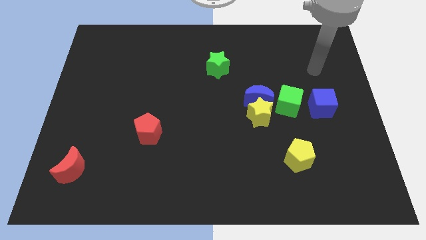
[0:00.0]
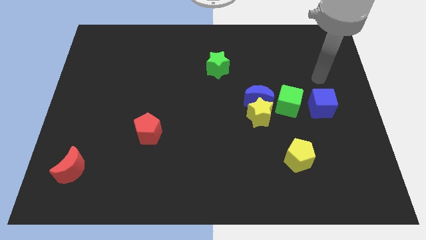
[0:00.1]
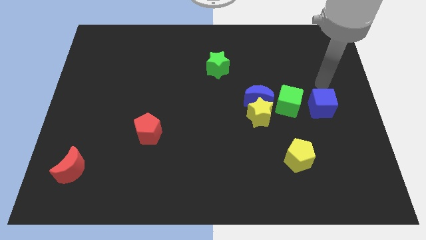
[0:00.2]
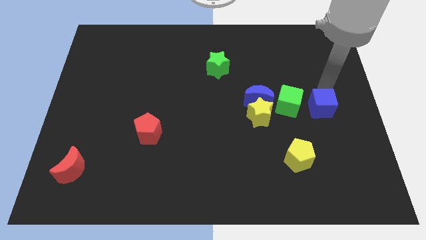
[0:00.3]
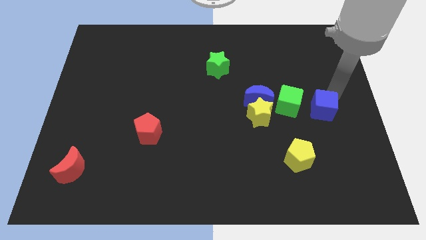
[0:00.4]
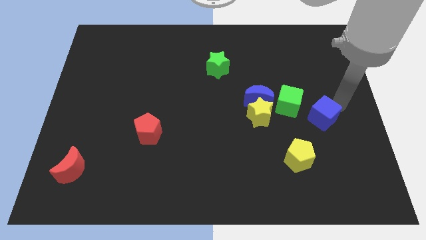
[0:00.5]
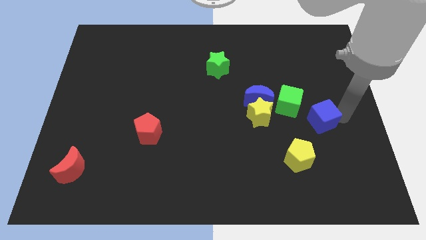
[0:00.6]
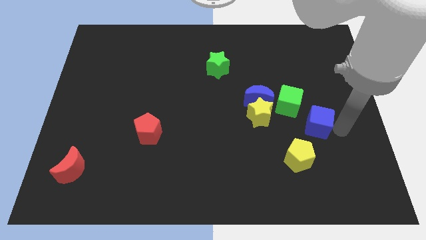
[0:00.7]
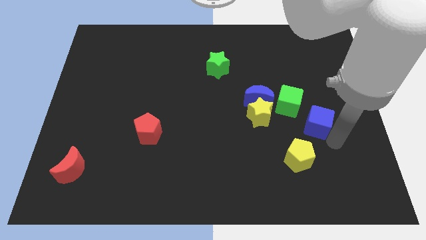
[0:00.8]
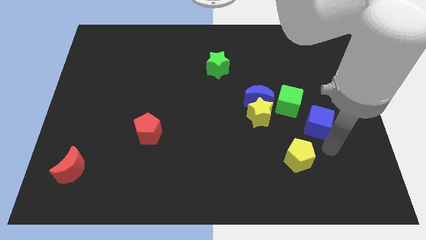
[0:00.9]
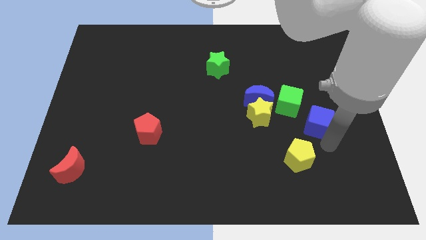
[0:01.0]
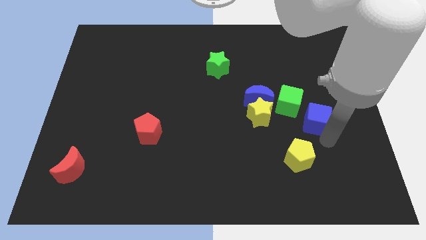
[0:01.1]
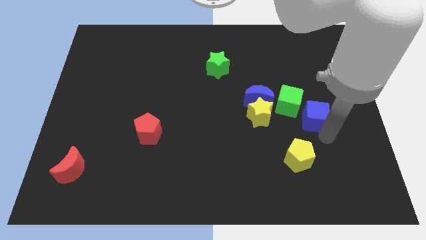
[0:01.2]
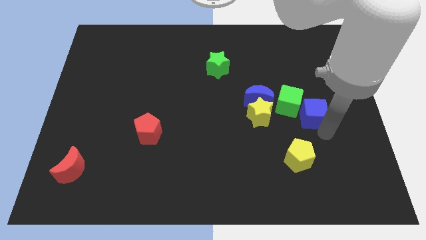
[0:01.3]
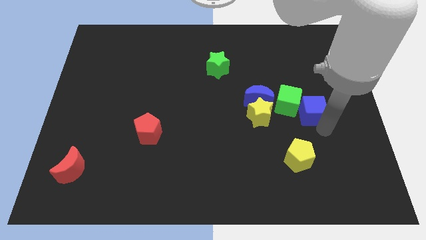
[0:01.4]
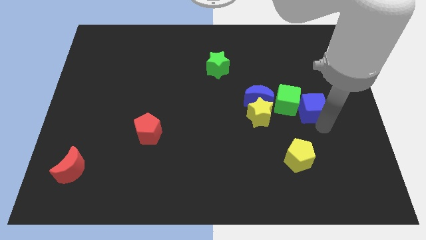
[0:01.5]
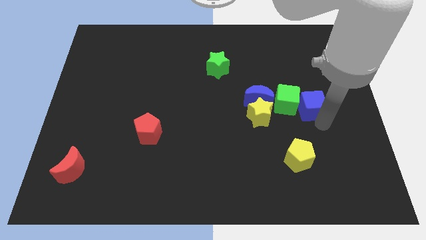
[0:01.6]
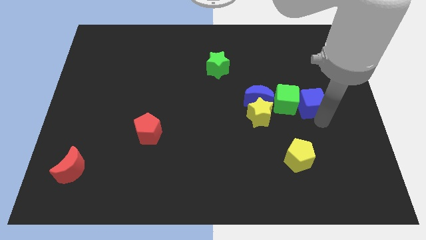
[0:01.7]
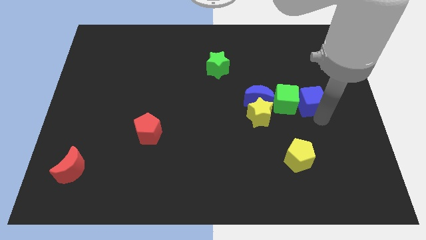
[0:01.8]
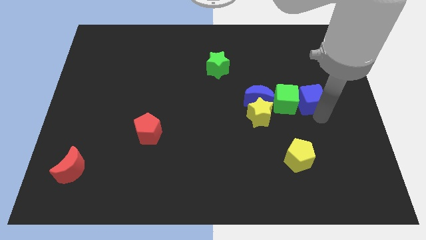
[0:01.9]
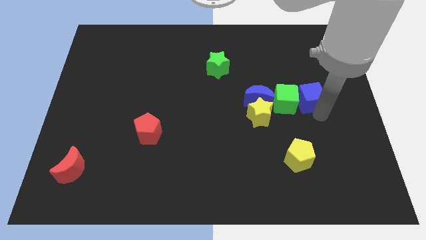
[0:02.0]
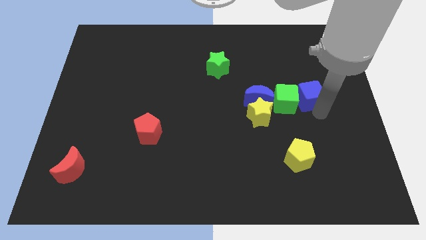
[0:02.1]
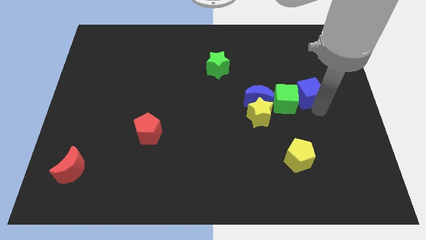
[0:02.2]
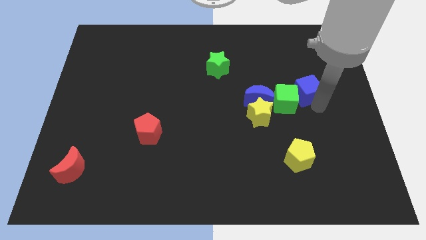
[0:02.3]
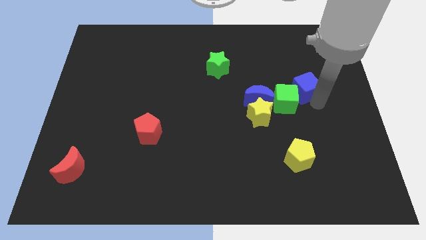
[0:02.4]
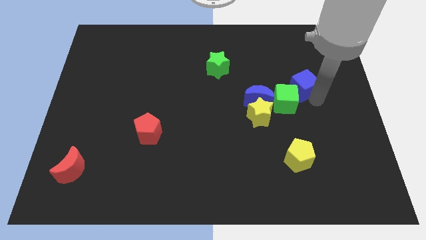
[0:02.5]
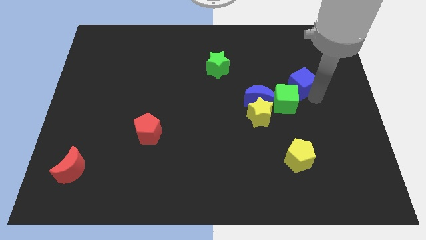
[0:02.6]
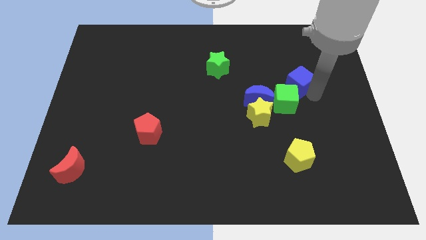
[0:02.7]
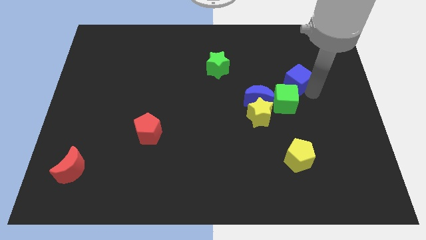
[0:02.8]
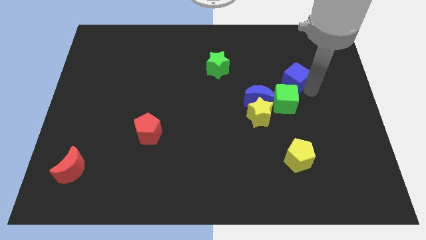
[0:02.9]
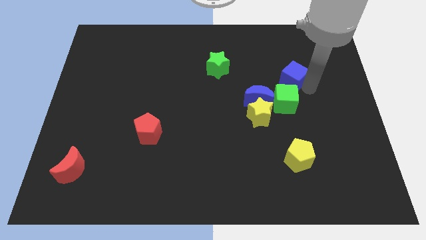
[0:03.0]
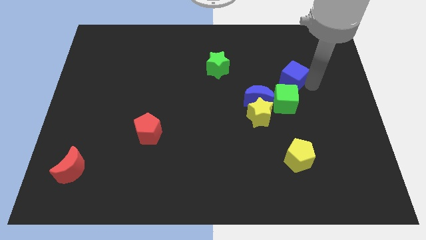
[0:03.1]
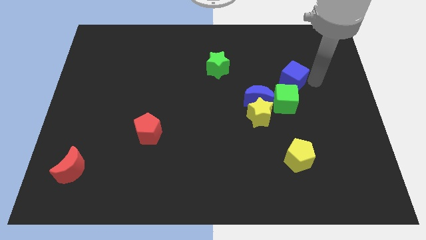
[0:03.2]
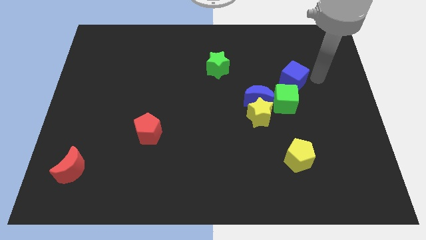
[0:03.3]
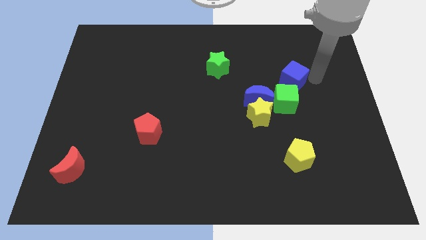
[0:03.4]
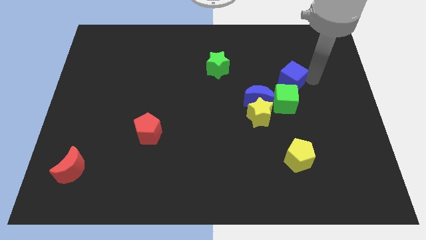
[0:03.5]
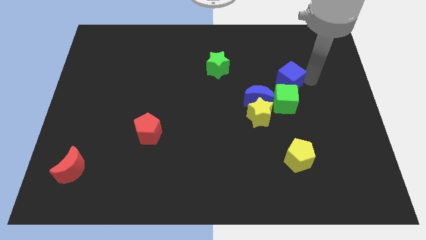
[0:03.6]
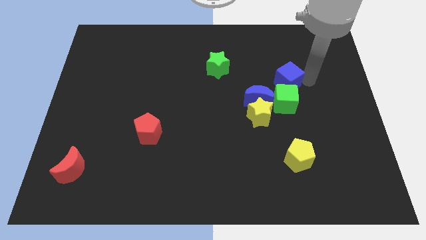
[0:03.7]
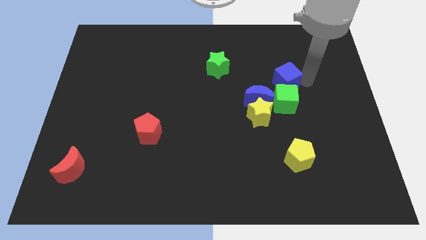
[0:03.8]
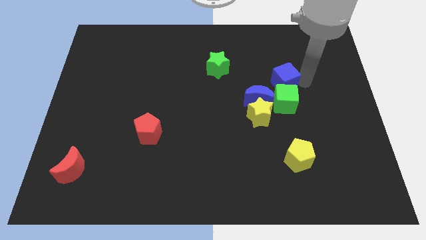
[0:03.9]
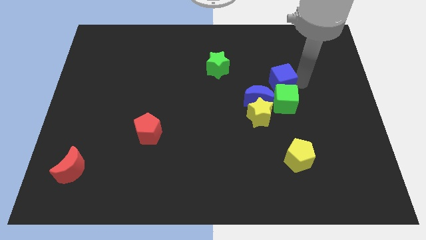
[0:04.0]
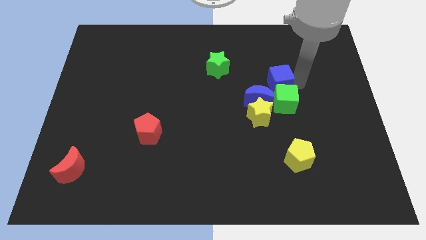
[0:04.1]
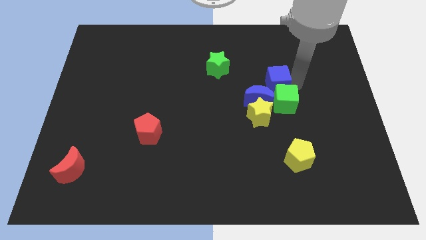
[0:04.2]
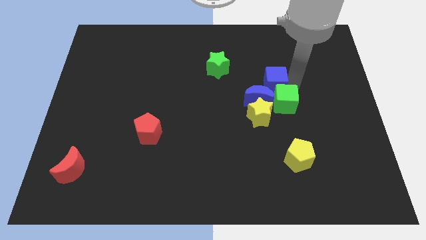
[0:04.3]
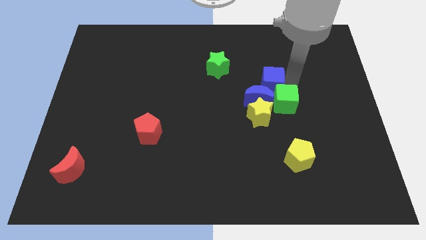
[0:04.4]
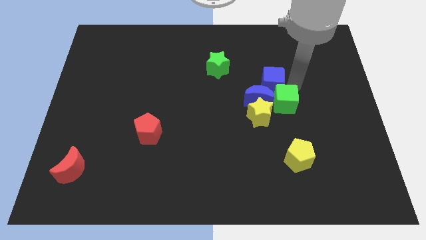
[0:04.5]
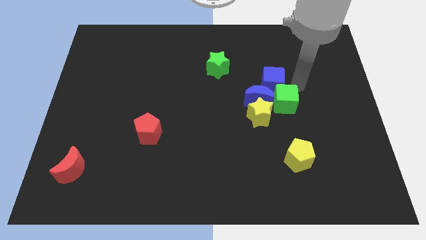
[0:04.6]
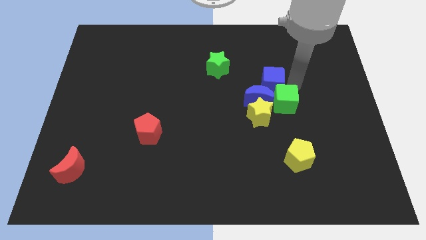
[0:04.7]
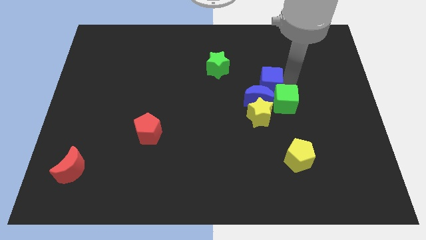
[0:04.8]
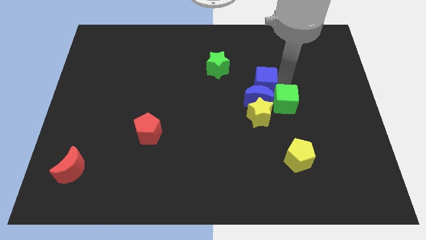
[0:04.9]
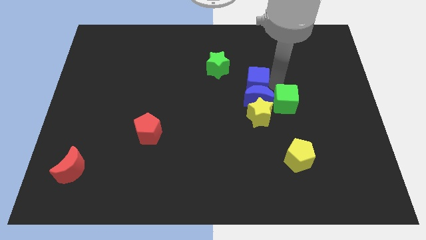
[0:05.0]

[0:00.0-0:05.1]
push the blue cube diagonally up and to the left of the blue moon

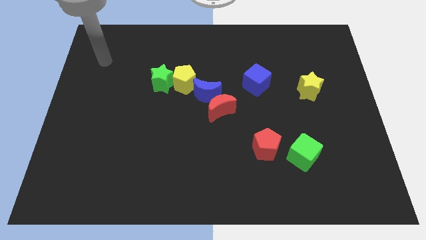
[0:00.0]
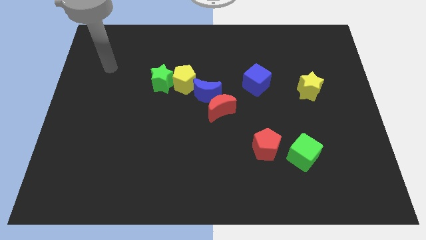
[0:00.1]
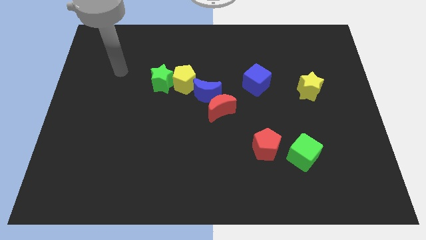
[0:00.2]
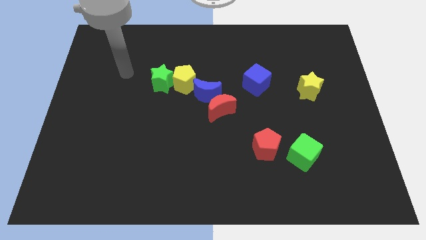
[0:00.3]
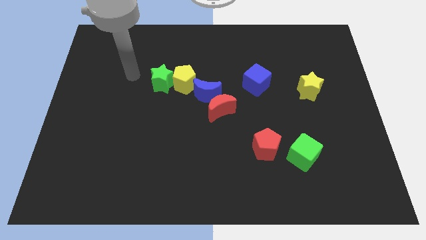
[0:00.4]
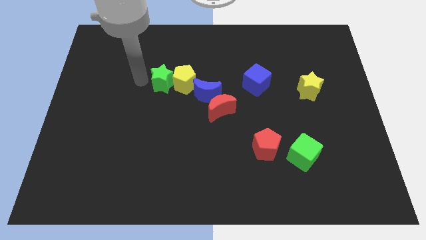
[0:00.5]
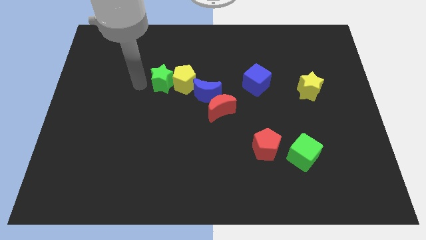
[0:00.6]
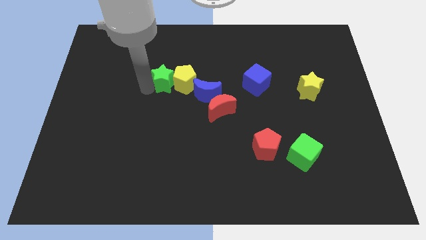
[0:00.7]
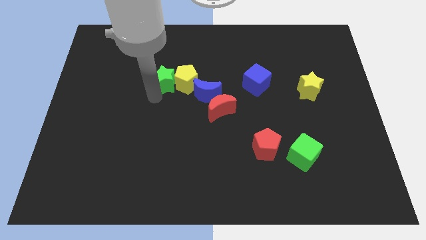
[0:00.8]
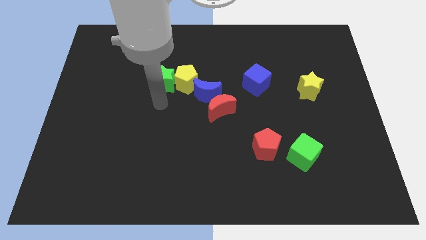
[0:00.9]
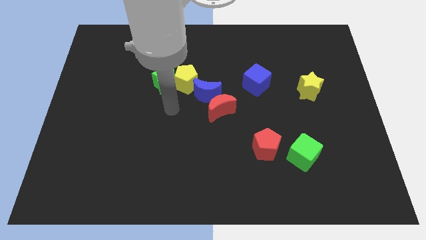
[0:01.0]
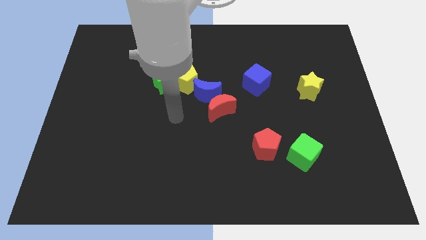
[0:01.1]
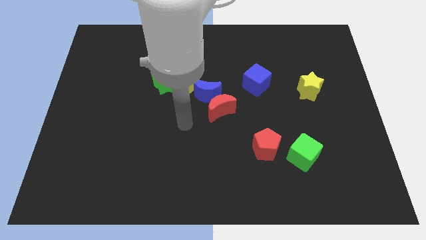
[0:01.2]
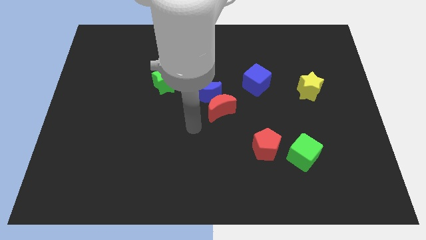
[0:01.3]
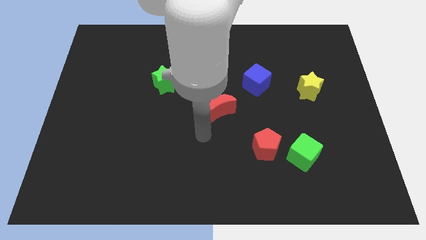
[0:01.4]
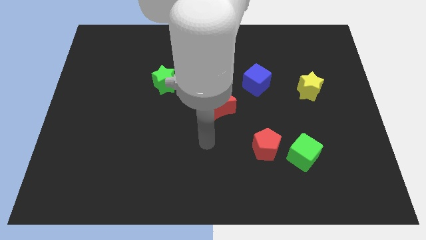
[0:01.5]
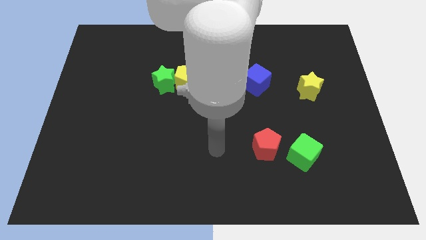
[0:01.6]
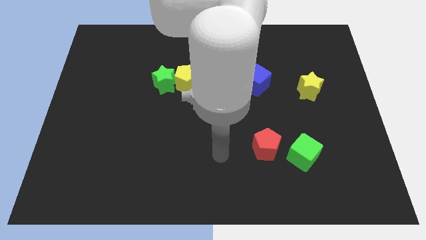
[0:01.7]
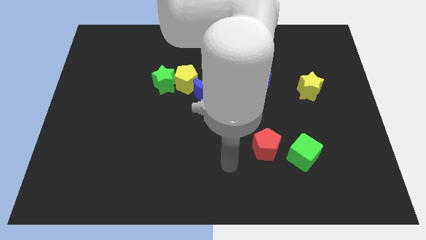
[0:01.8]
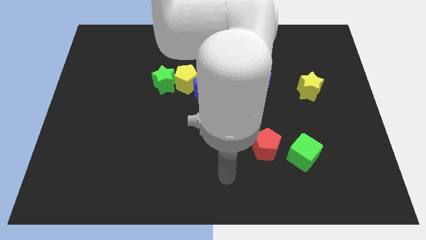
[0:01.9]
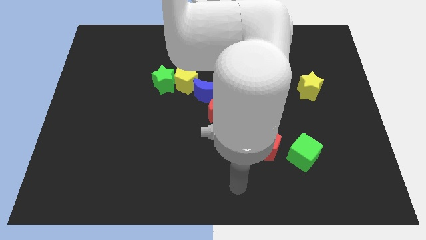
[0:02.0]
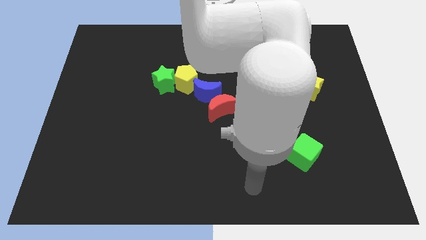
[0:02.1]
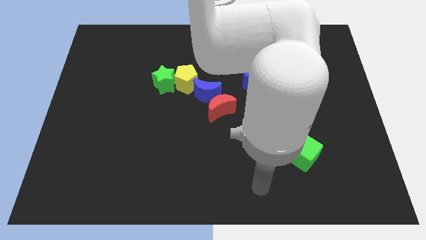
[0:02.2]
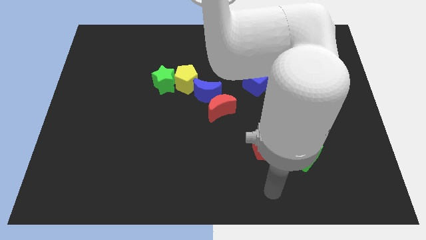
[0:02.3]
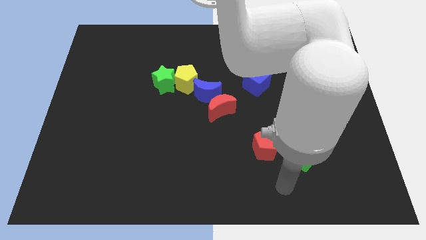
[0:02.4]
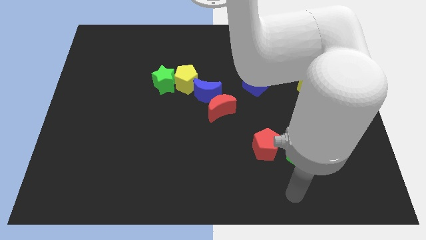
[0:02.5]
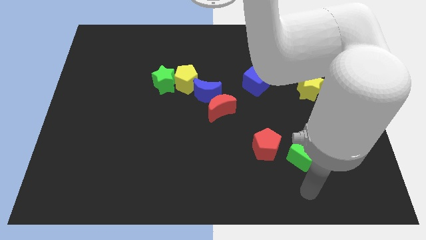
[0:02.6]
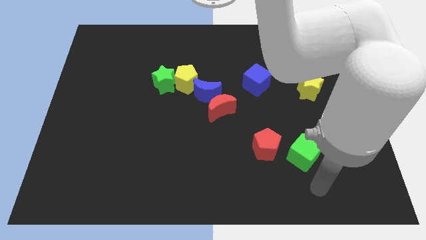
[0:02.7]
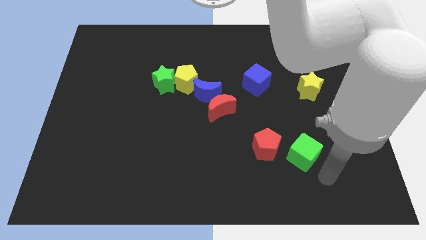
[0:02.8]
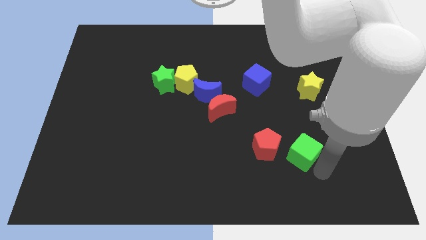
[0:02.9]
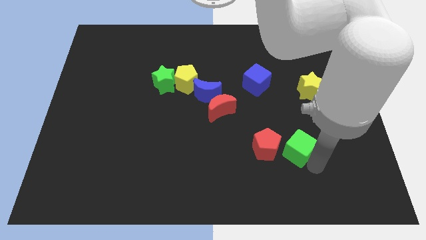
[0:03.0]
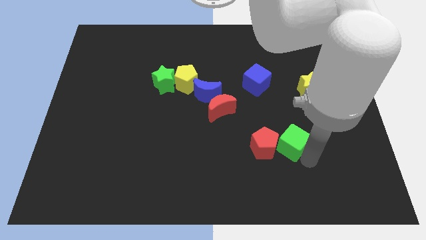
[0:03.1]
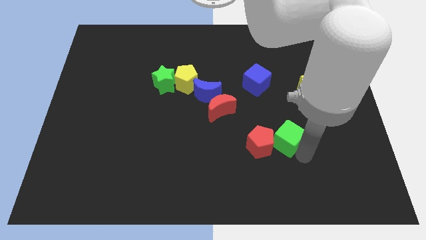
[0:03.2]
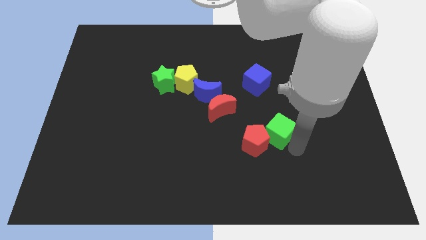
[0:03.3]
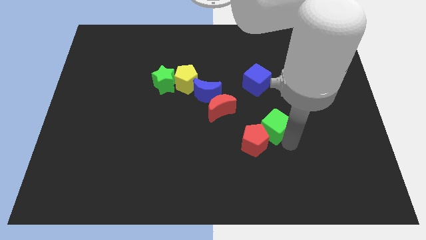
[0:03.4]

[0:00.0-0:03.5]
slide the green cube to the bottom of the blue cube
